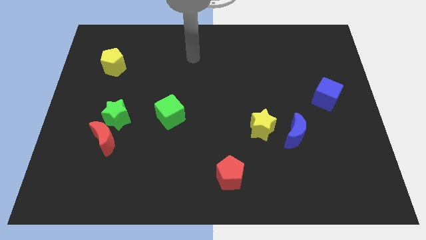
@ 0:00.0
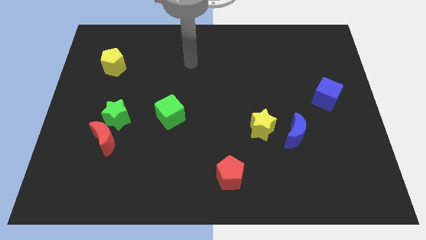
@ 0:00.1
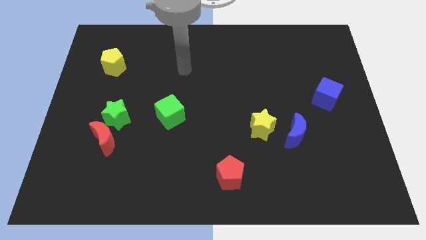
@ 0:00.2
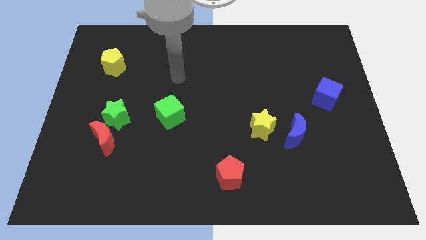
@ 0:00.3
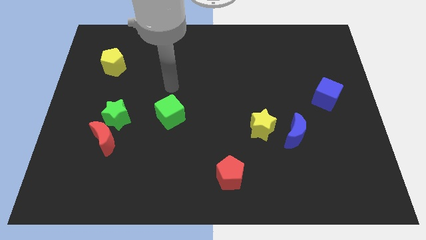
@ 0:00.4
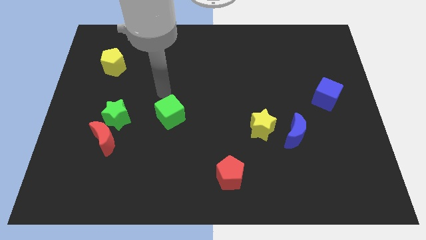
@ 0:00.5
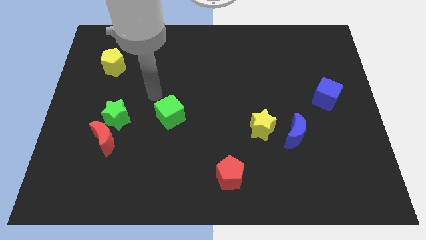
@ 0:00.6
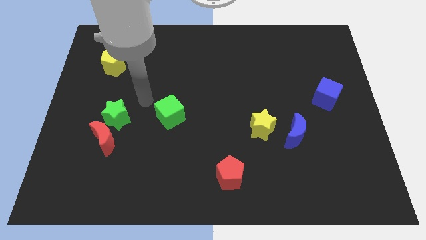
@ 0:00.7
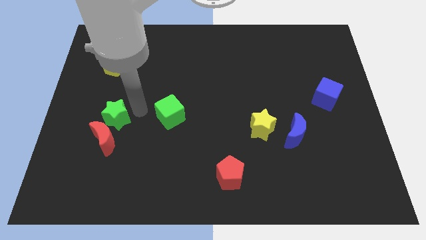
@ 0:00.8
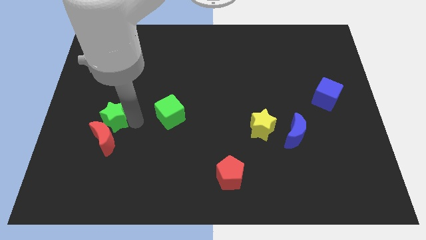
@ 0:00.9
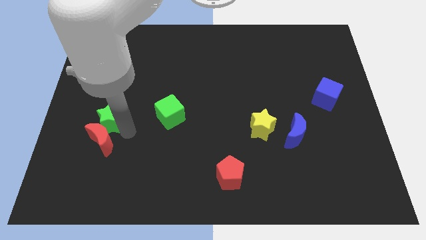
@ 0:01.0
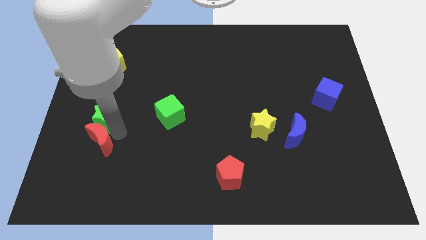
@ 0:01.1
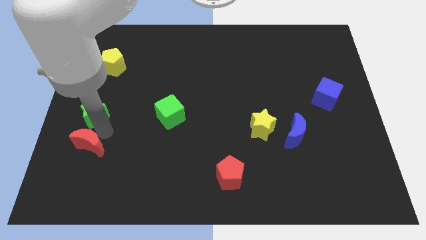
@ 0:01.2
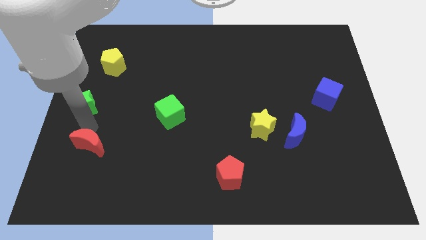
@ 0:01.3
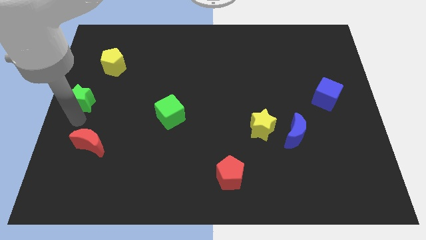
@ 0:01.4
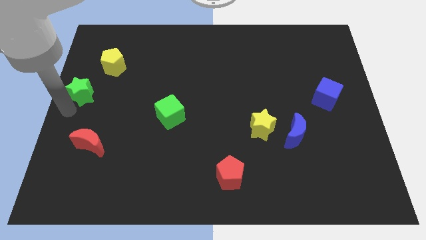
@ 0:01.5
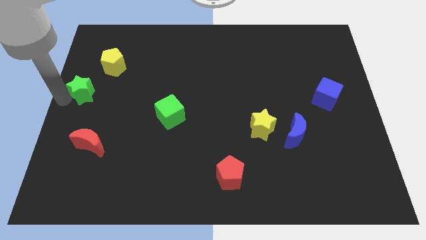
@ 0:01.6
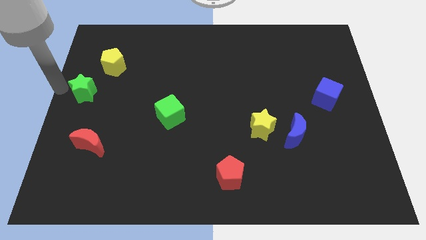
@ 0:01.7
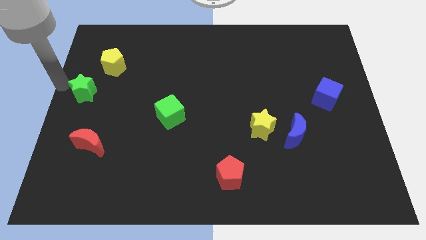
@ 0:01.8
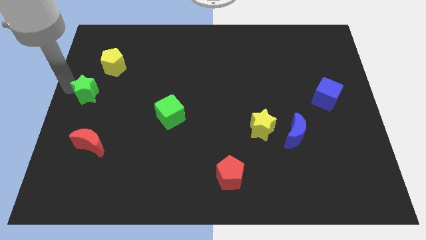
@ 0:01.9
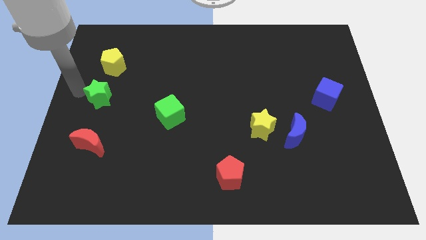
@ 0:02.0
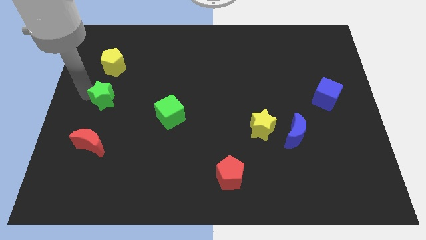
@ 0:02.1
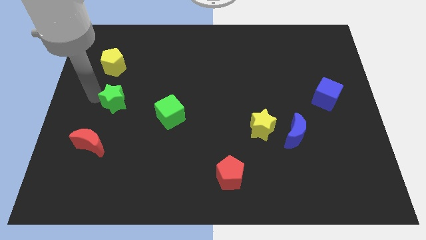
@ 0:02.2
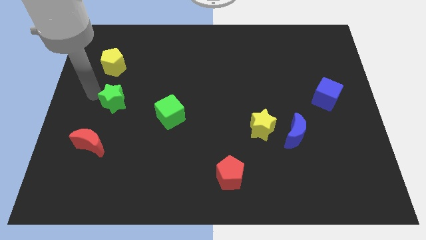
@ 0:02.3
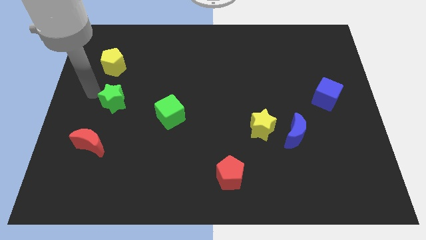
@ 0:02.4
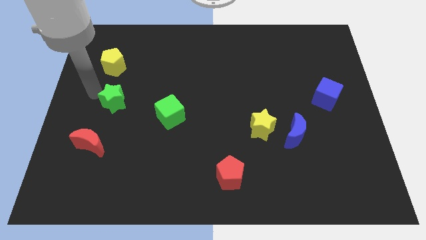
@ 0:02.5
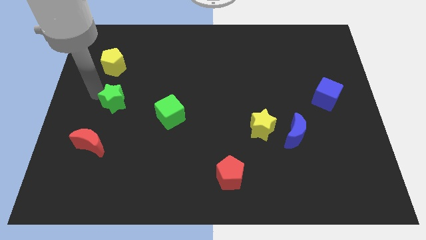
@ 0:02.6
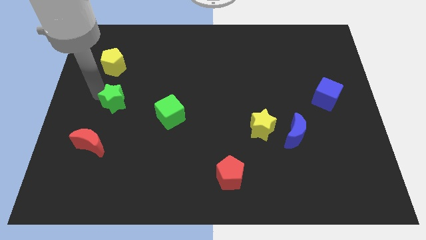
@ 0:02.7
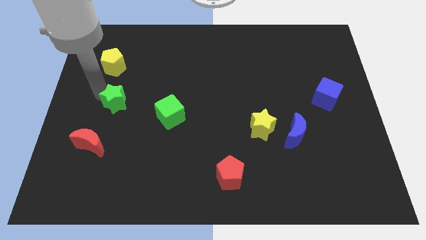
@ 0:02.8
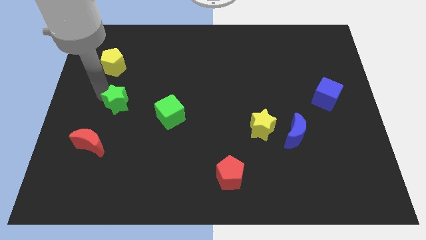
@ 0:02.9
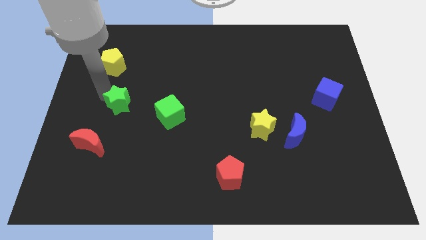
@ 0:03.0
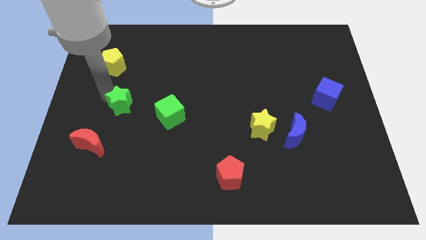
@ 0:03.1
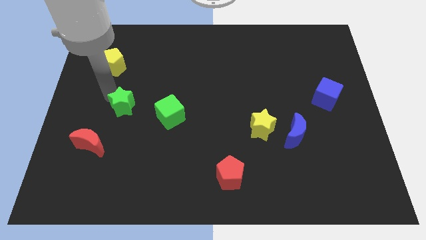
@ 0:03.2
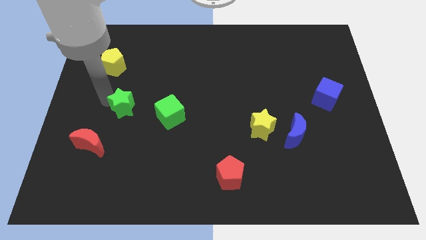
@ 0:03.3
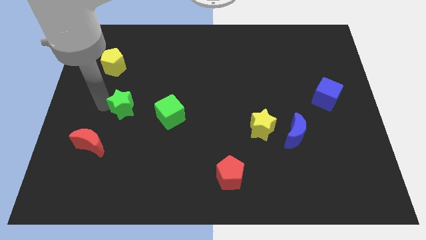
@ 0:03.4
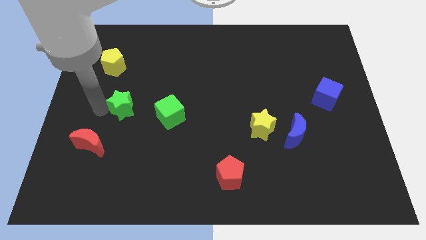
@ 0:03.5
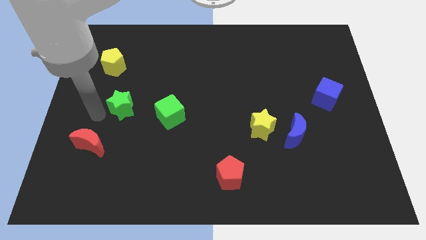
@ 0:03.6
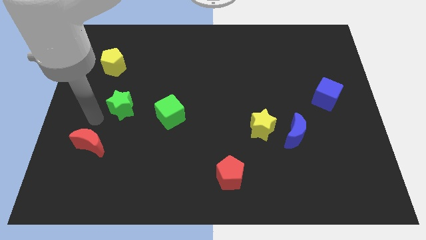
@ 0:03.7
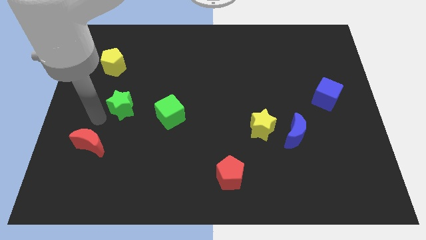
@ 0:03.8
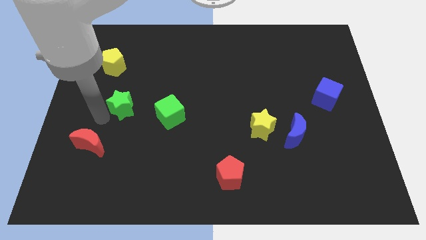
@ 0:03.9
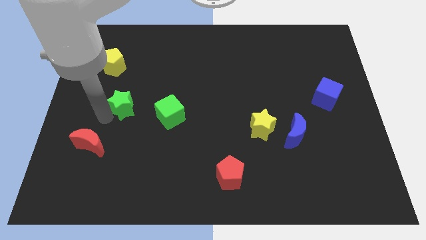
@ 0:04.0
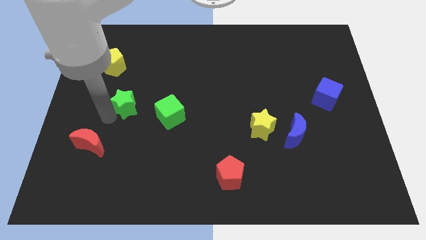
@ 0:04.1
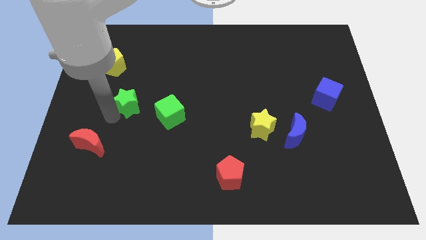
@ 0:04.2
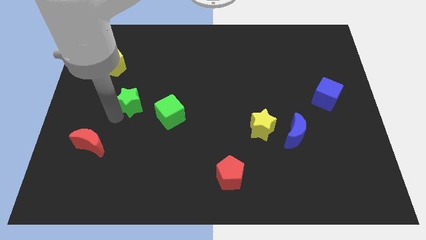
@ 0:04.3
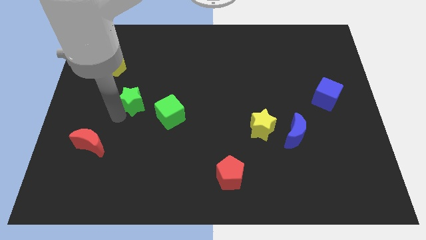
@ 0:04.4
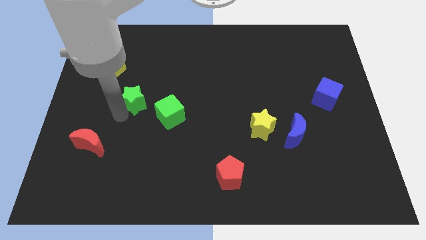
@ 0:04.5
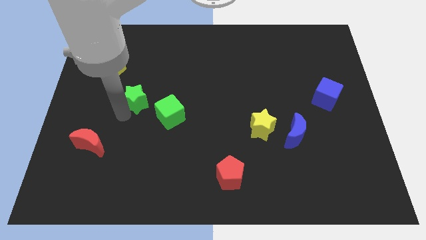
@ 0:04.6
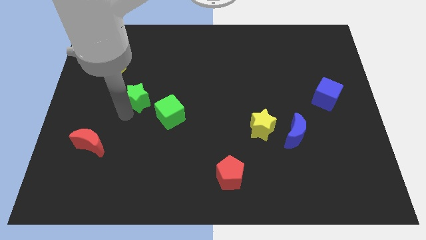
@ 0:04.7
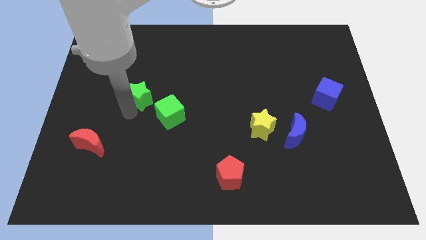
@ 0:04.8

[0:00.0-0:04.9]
slightly move the green star upwards and to the right diagonally

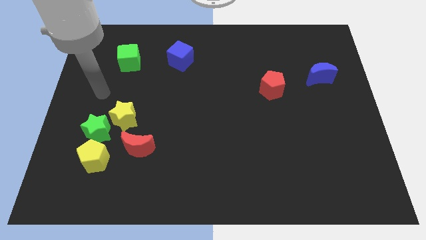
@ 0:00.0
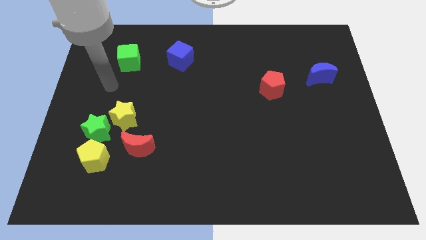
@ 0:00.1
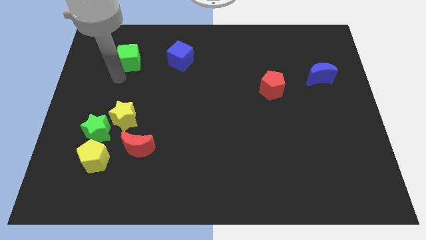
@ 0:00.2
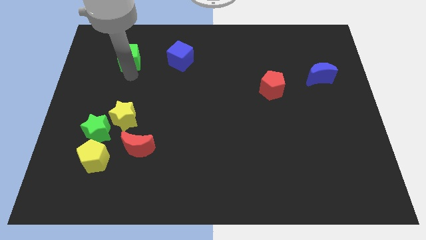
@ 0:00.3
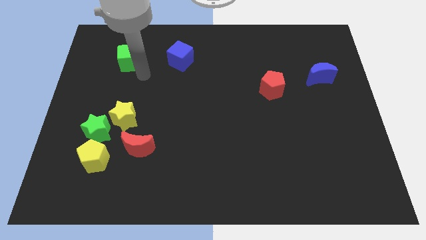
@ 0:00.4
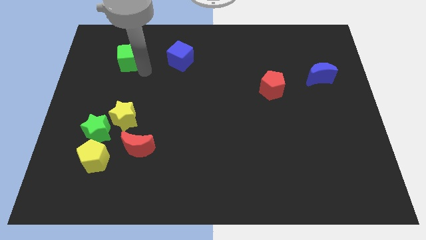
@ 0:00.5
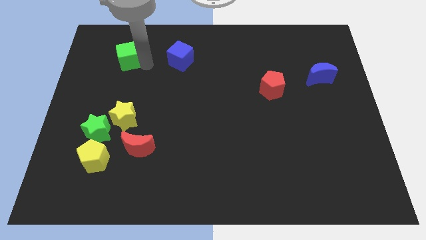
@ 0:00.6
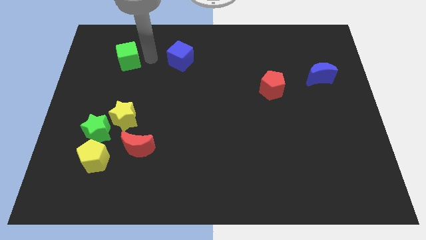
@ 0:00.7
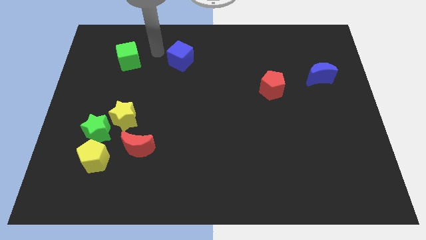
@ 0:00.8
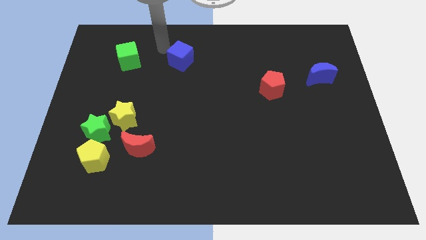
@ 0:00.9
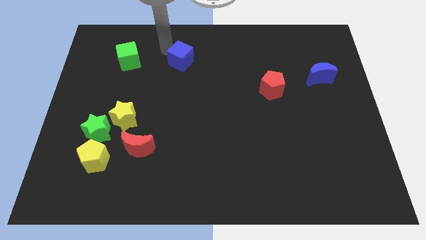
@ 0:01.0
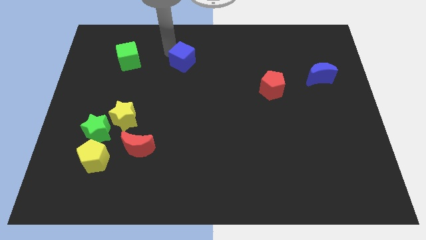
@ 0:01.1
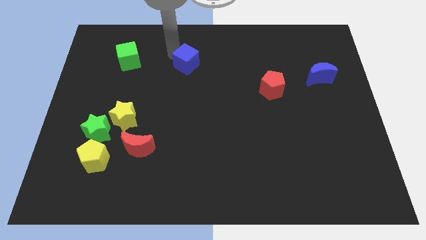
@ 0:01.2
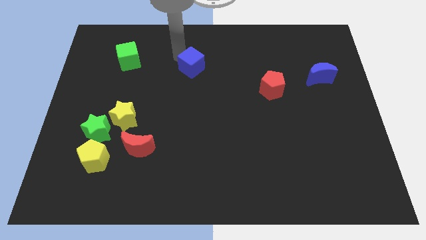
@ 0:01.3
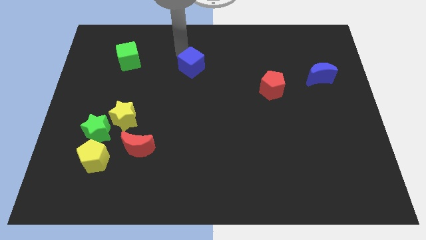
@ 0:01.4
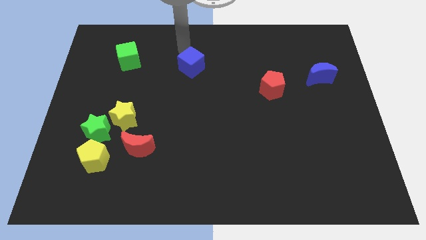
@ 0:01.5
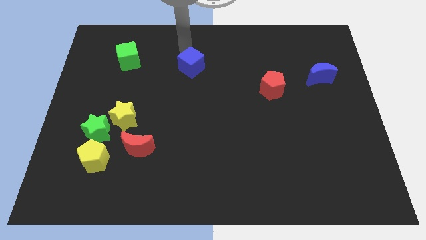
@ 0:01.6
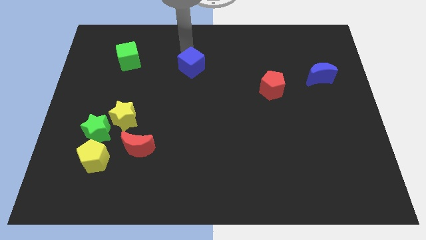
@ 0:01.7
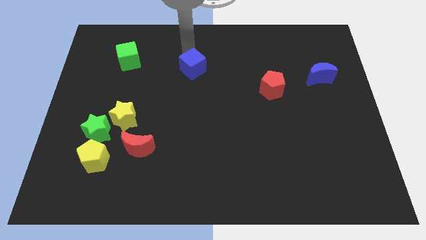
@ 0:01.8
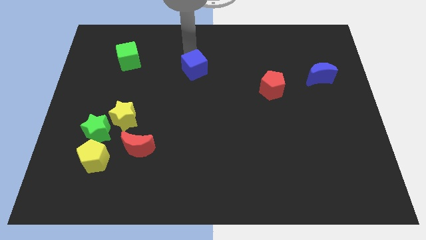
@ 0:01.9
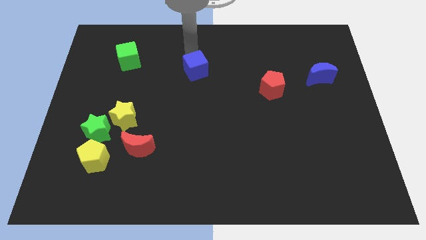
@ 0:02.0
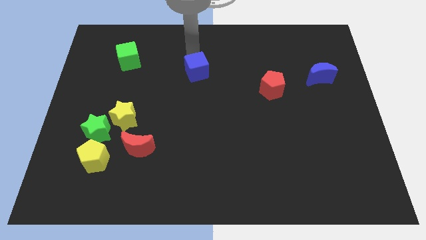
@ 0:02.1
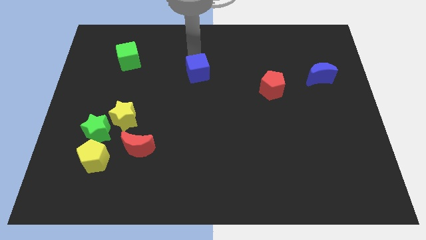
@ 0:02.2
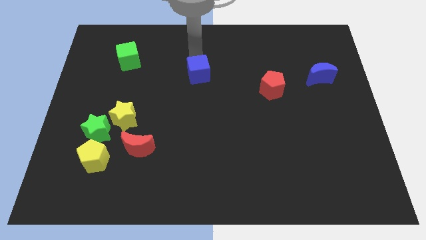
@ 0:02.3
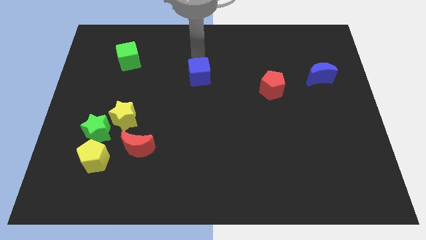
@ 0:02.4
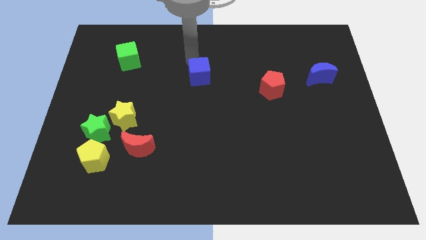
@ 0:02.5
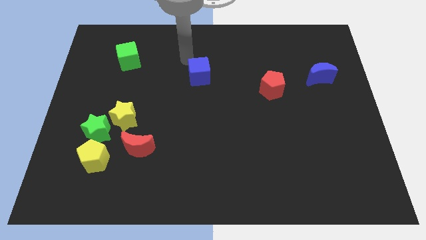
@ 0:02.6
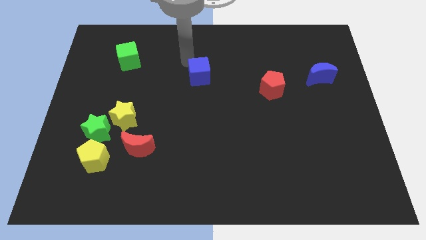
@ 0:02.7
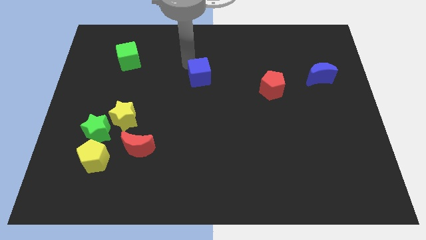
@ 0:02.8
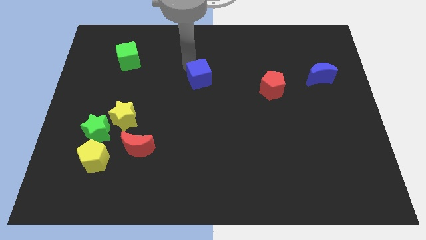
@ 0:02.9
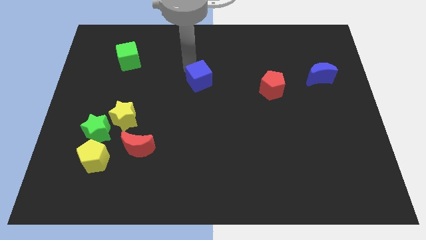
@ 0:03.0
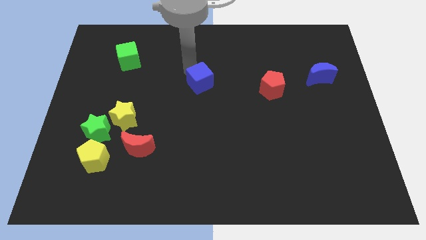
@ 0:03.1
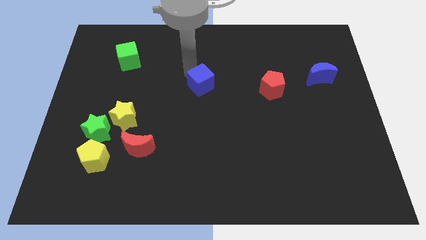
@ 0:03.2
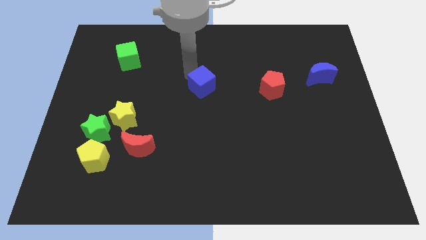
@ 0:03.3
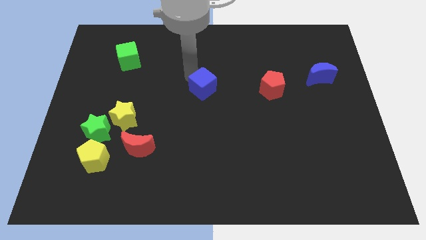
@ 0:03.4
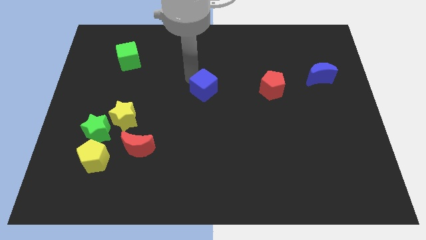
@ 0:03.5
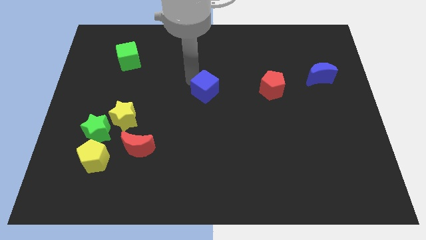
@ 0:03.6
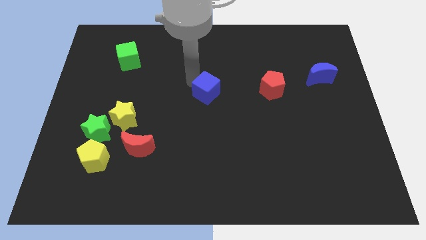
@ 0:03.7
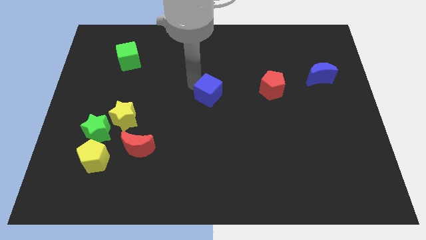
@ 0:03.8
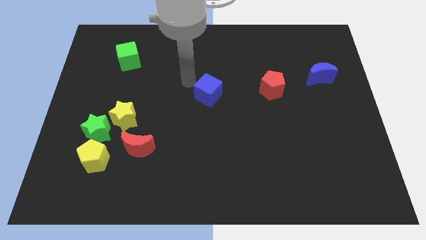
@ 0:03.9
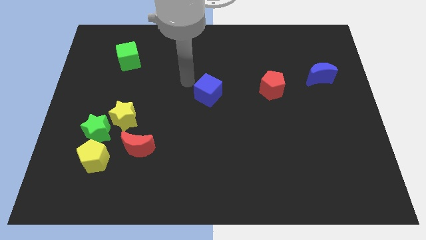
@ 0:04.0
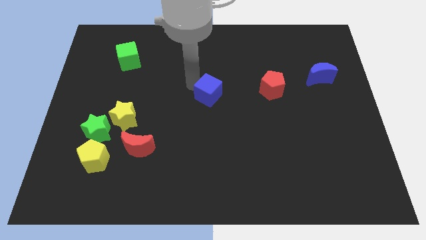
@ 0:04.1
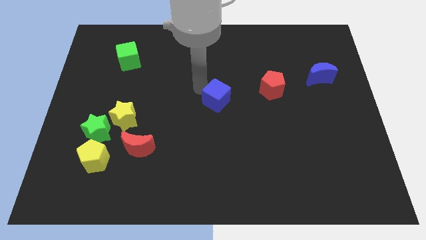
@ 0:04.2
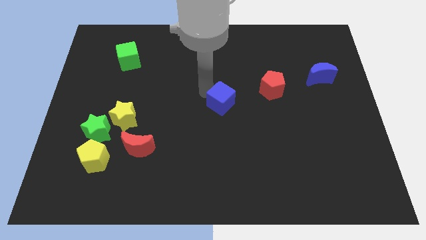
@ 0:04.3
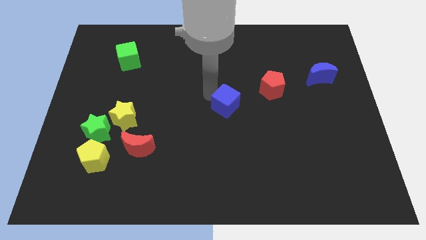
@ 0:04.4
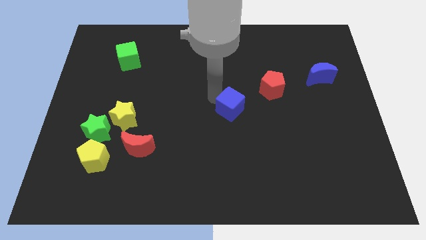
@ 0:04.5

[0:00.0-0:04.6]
move the blue cube diagonally down and to the right
